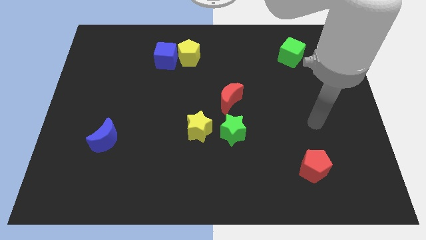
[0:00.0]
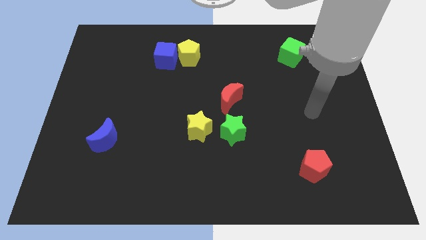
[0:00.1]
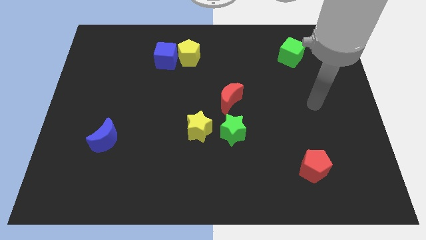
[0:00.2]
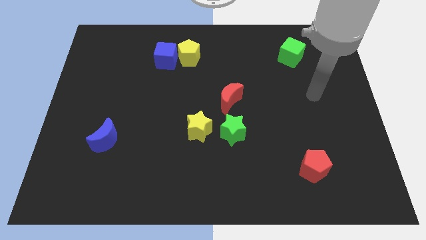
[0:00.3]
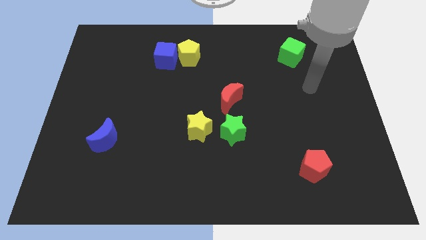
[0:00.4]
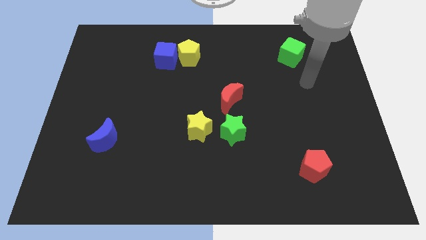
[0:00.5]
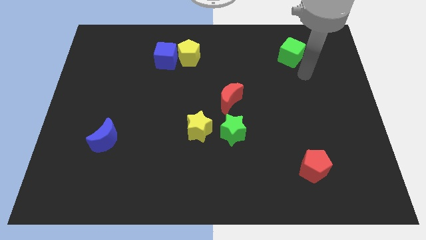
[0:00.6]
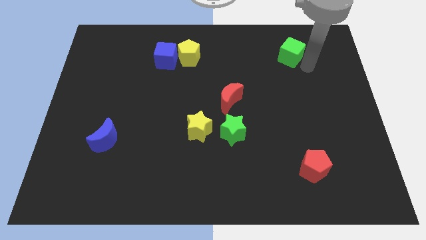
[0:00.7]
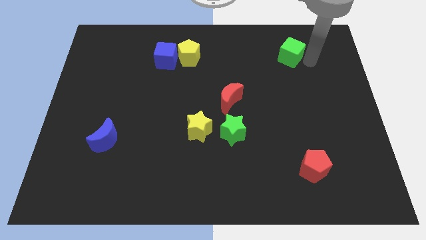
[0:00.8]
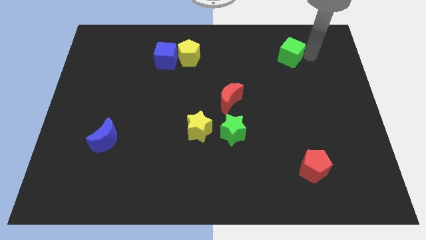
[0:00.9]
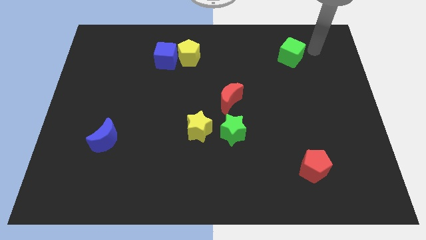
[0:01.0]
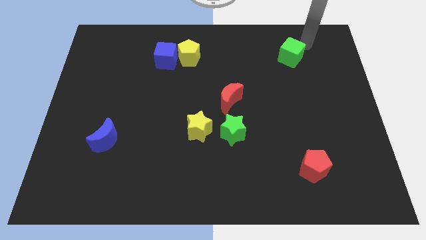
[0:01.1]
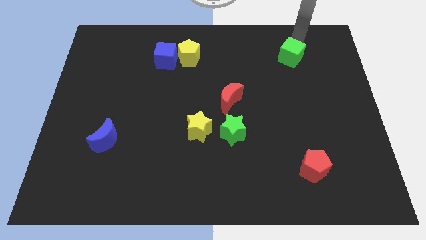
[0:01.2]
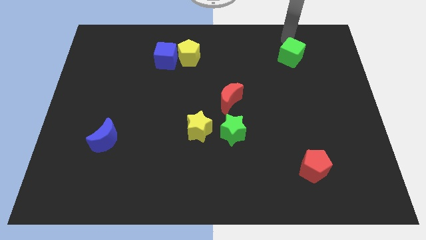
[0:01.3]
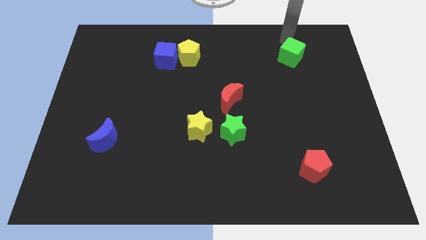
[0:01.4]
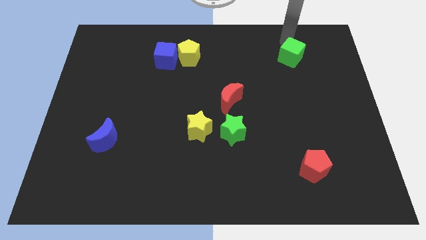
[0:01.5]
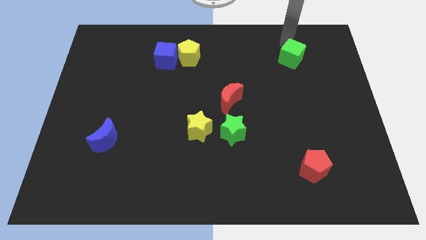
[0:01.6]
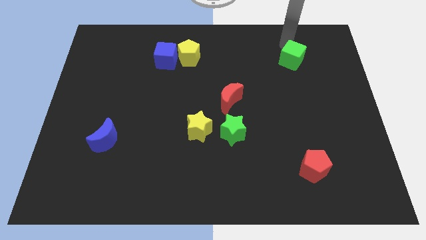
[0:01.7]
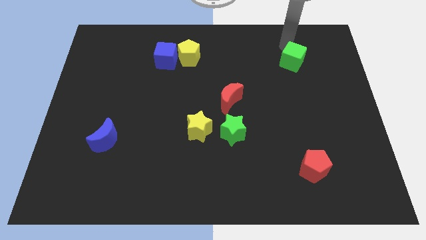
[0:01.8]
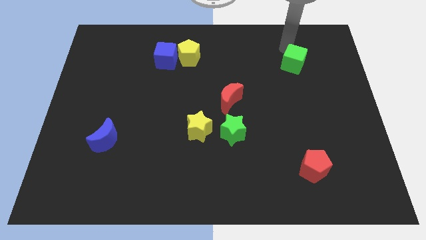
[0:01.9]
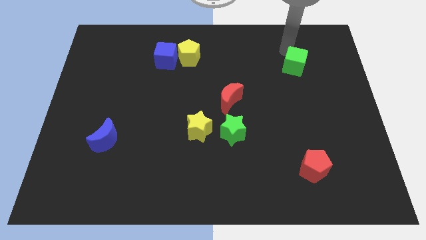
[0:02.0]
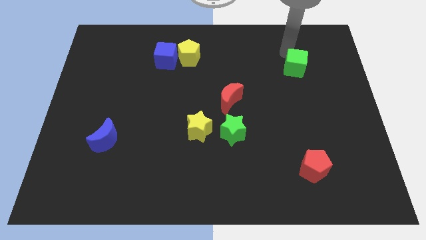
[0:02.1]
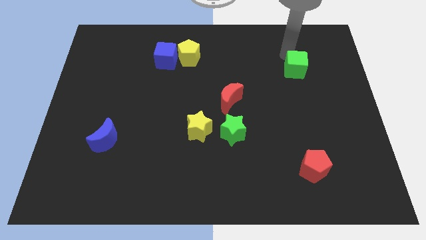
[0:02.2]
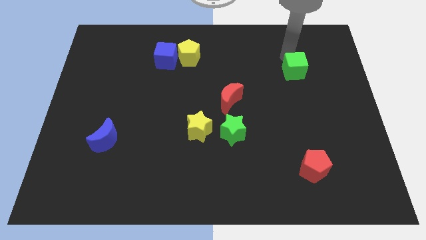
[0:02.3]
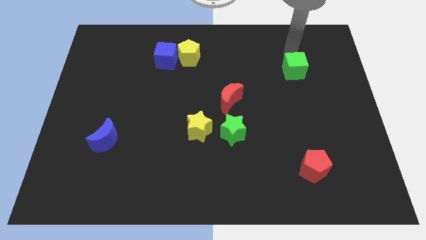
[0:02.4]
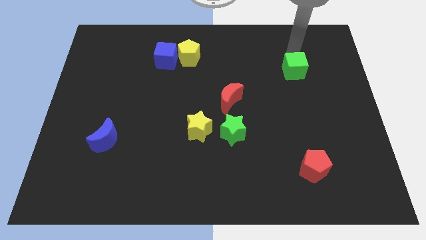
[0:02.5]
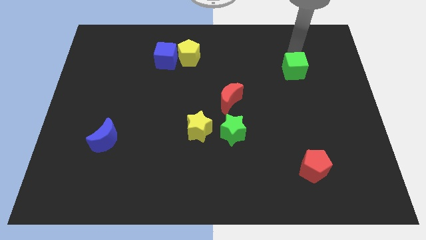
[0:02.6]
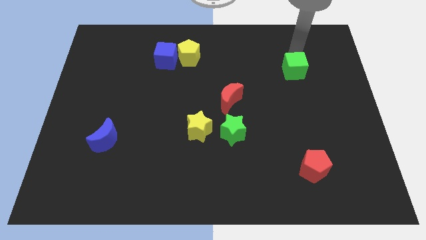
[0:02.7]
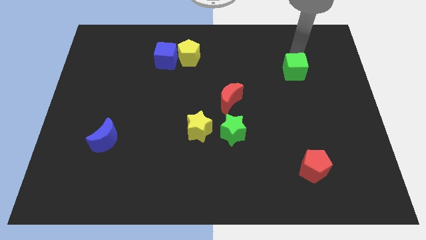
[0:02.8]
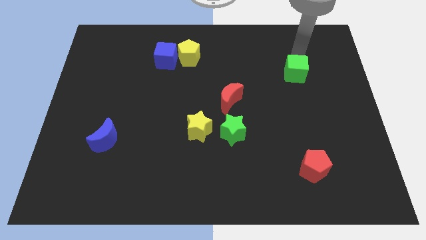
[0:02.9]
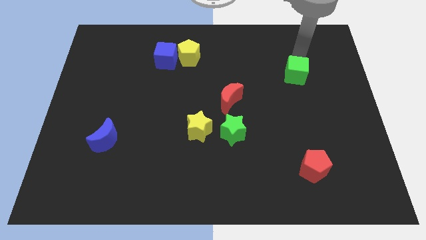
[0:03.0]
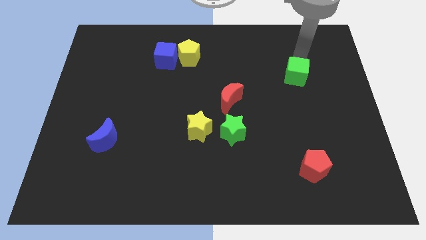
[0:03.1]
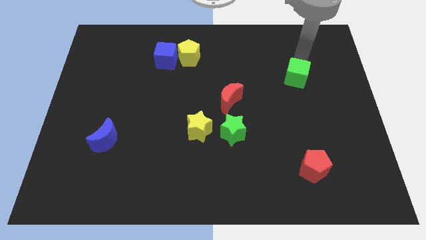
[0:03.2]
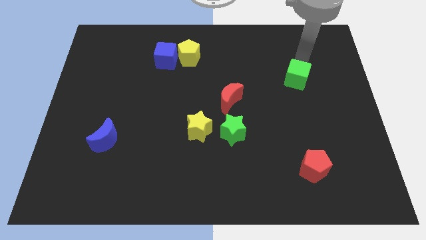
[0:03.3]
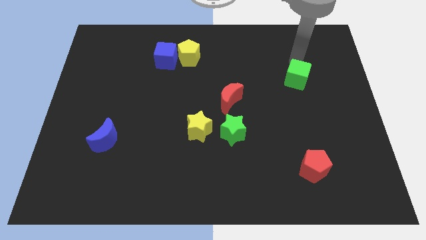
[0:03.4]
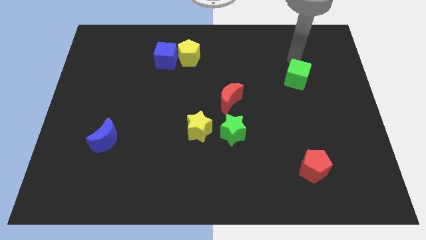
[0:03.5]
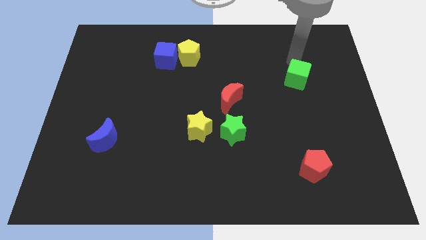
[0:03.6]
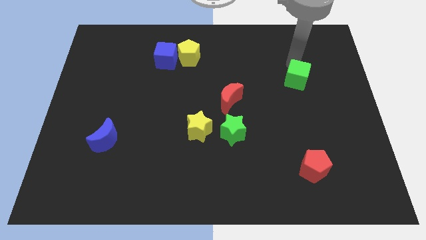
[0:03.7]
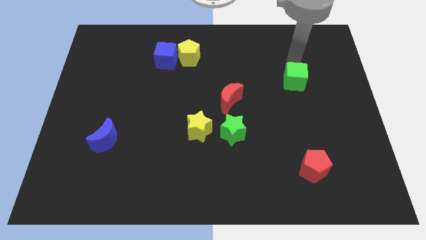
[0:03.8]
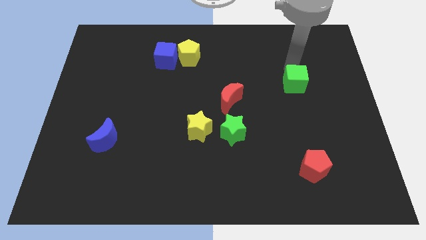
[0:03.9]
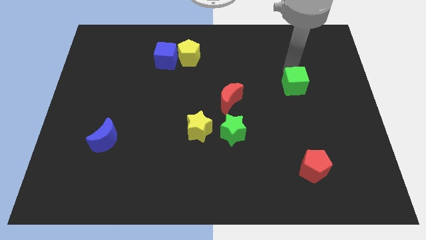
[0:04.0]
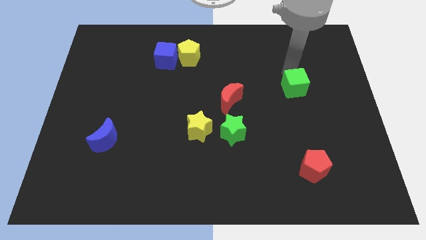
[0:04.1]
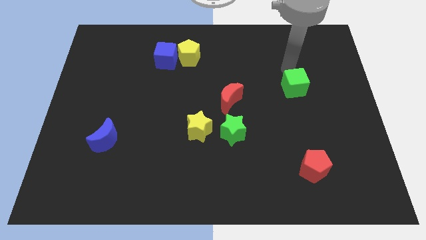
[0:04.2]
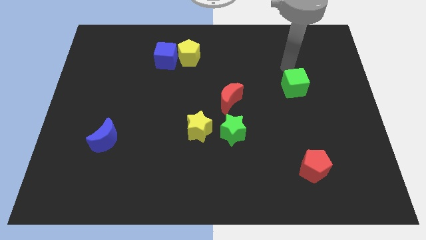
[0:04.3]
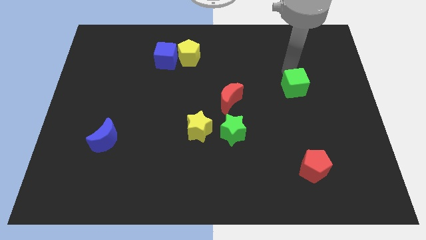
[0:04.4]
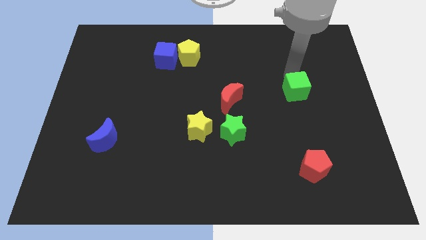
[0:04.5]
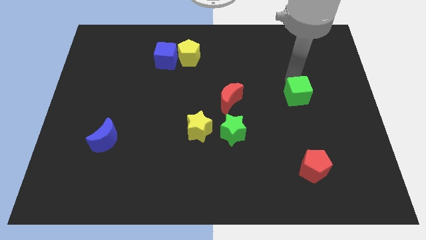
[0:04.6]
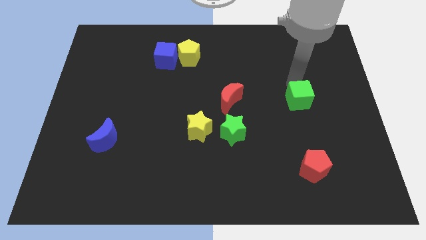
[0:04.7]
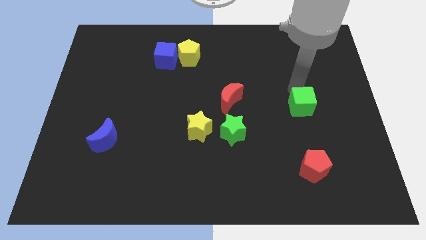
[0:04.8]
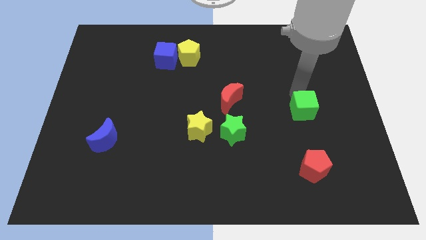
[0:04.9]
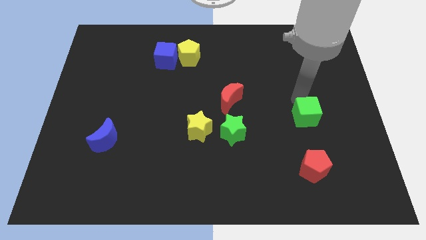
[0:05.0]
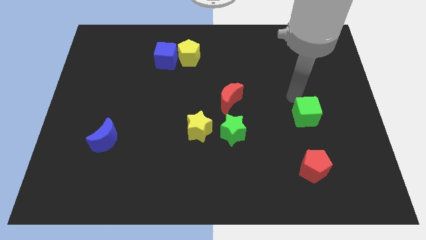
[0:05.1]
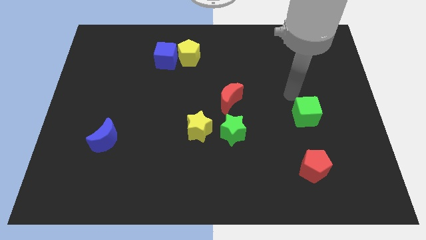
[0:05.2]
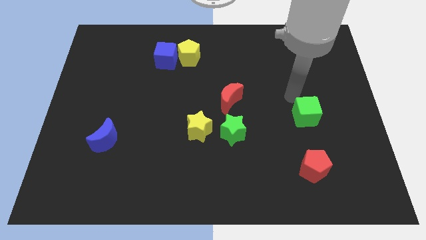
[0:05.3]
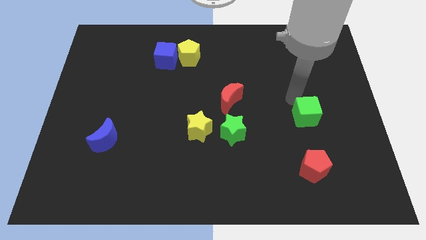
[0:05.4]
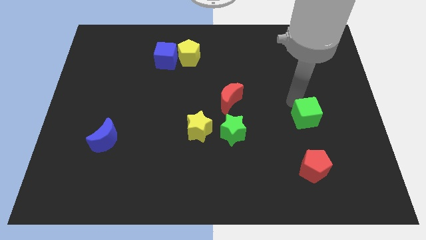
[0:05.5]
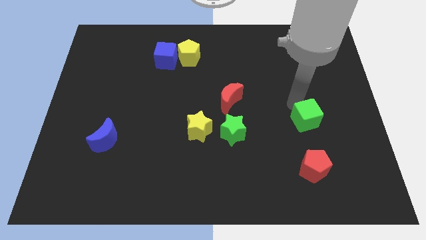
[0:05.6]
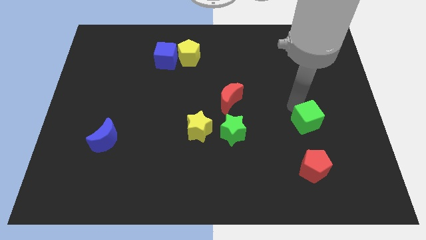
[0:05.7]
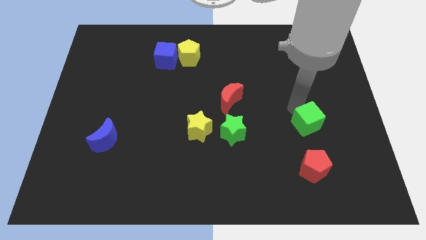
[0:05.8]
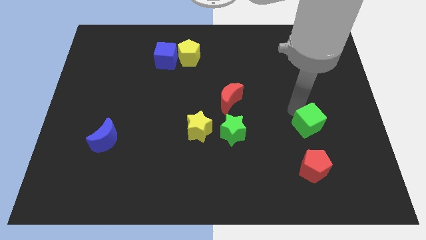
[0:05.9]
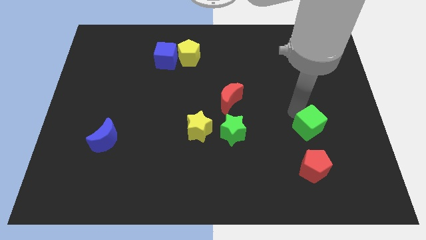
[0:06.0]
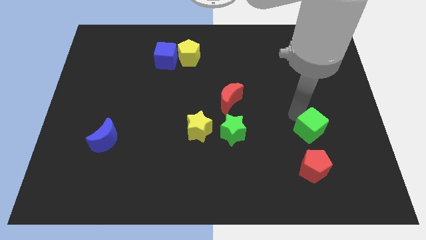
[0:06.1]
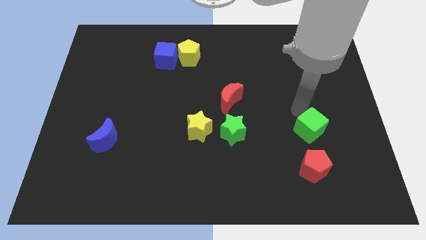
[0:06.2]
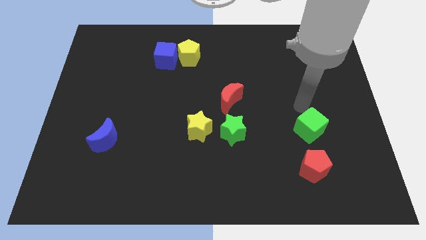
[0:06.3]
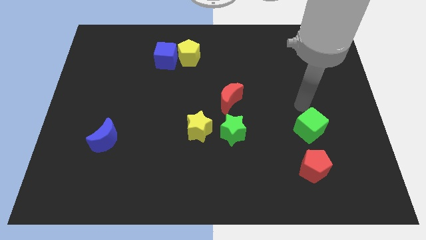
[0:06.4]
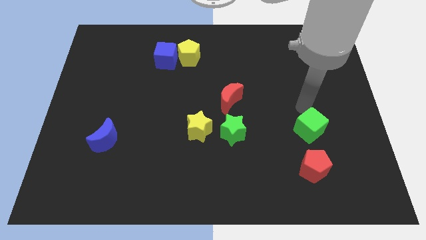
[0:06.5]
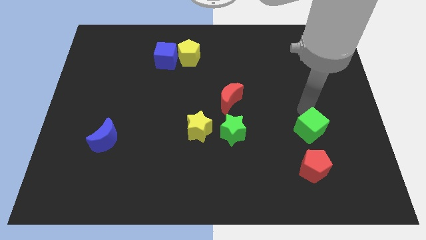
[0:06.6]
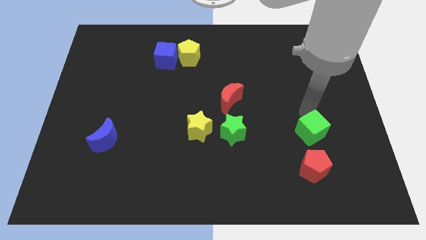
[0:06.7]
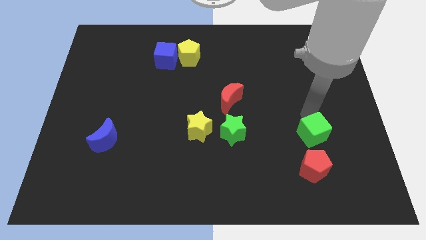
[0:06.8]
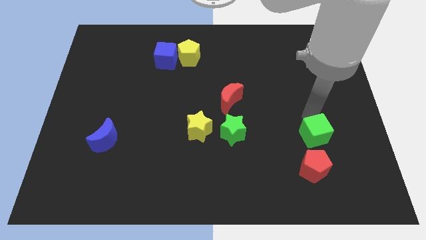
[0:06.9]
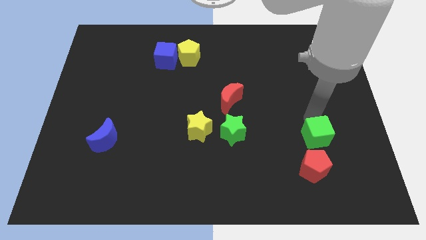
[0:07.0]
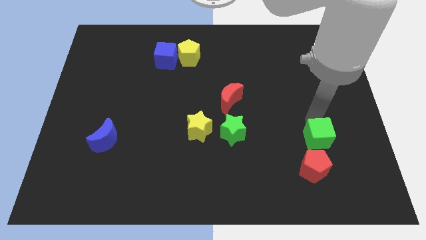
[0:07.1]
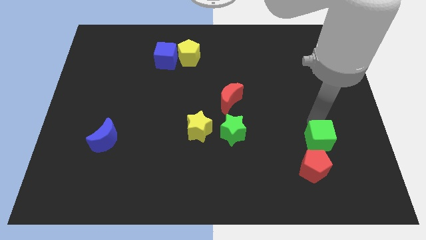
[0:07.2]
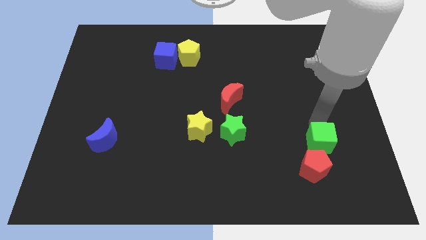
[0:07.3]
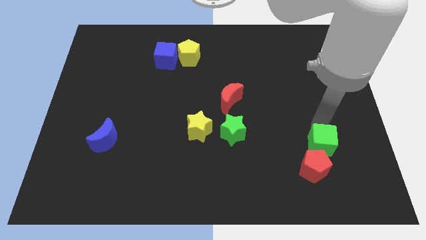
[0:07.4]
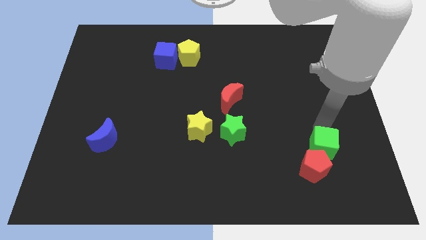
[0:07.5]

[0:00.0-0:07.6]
push the green cube next to the red pentagon
